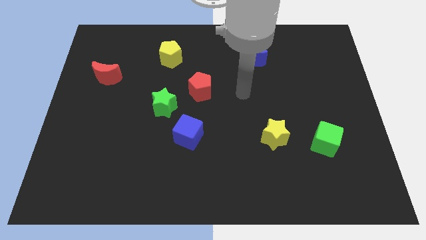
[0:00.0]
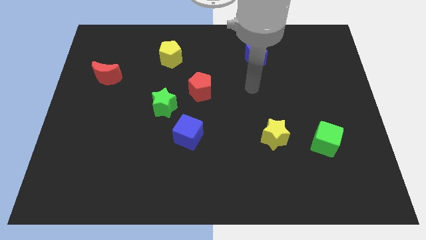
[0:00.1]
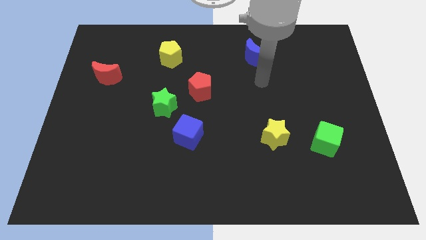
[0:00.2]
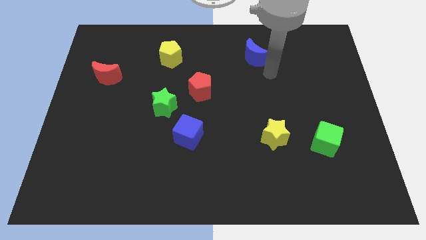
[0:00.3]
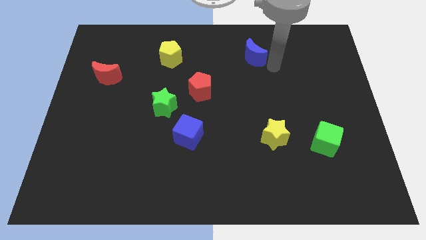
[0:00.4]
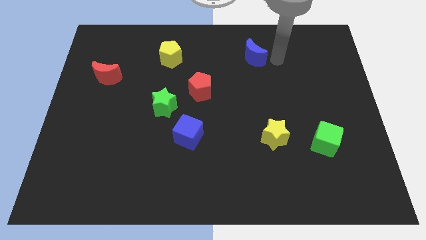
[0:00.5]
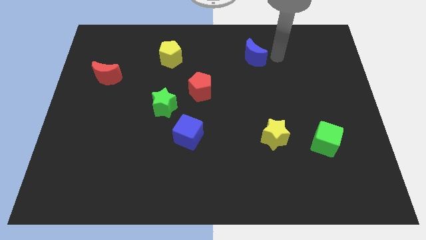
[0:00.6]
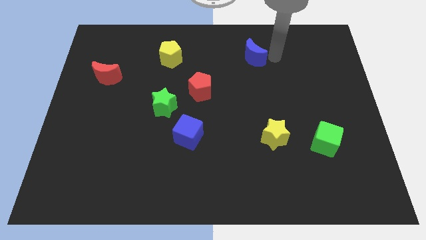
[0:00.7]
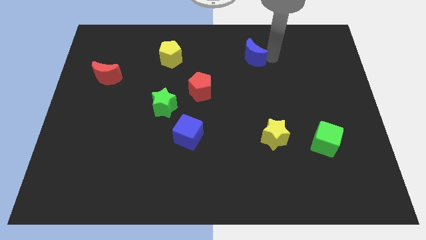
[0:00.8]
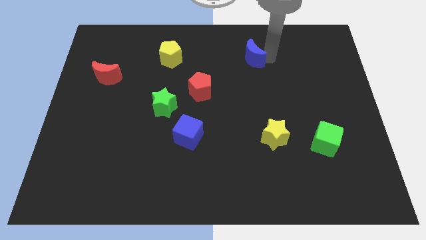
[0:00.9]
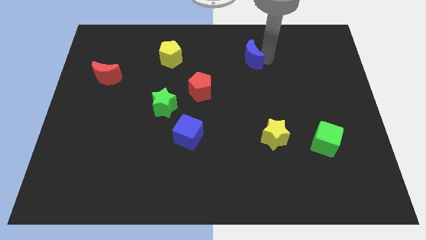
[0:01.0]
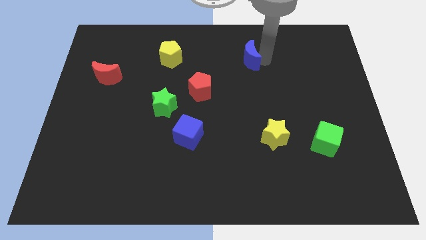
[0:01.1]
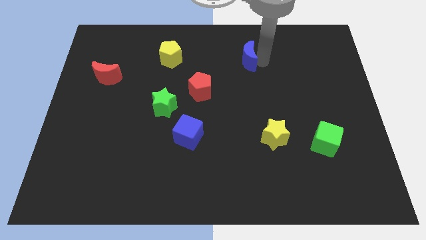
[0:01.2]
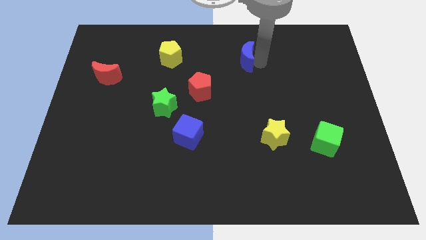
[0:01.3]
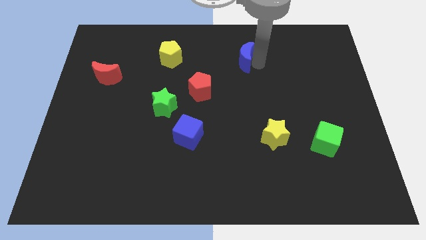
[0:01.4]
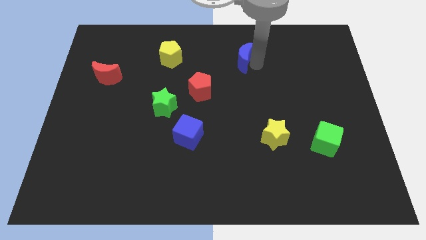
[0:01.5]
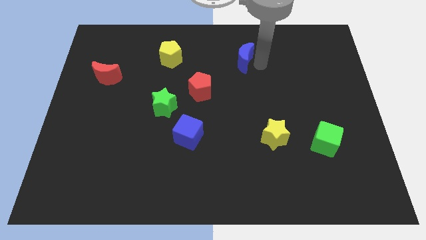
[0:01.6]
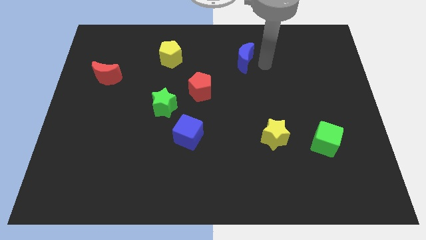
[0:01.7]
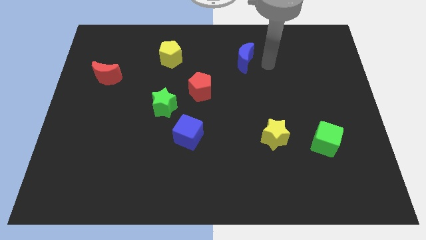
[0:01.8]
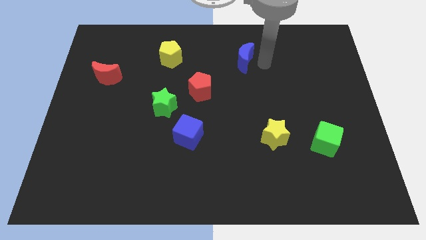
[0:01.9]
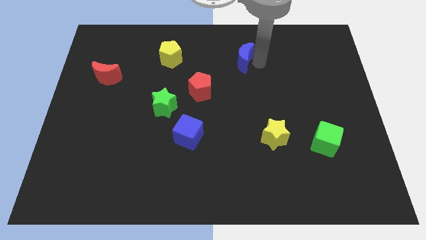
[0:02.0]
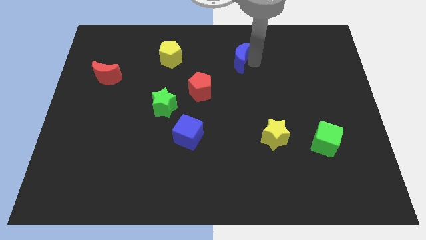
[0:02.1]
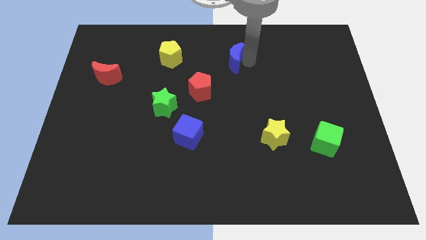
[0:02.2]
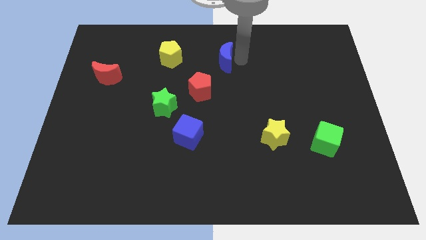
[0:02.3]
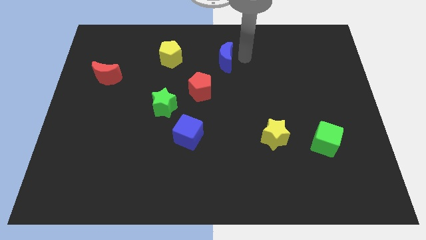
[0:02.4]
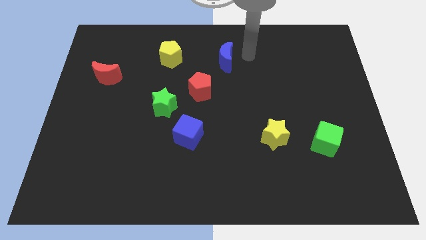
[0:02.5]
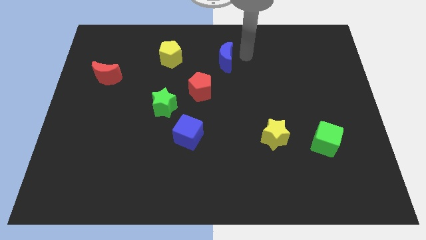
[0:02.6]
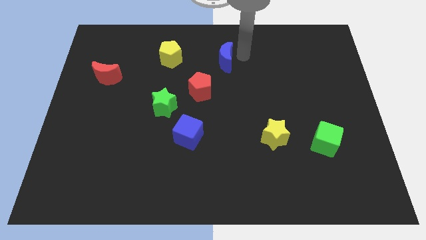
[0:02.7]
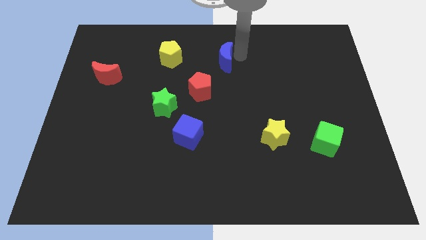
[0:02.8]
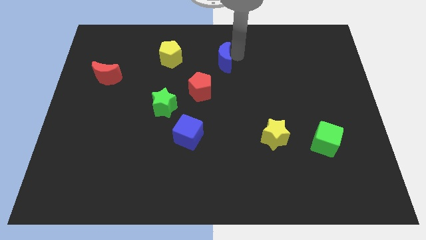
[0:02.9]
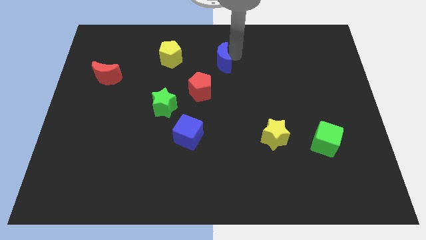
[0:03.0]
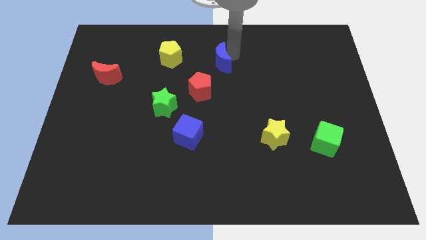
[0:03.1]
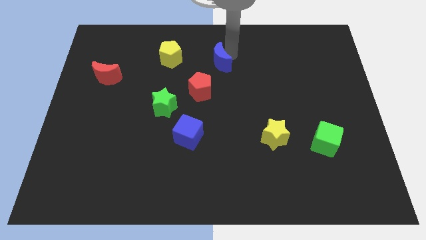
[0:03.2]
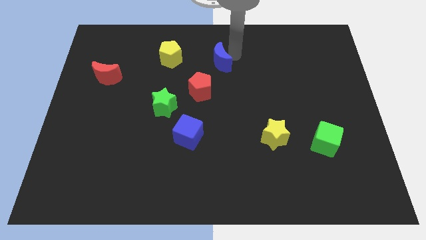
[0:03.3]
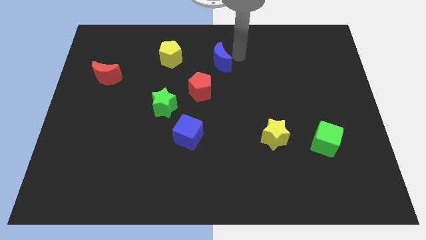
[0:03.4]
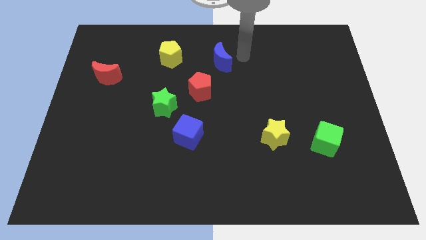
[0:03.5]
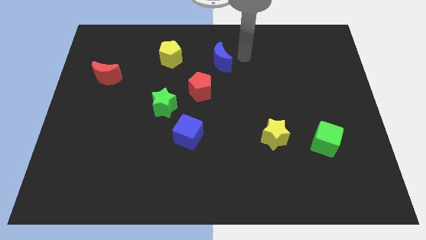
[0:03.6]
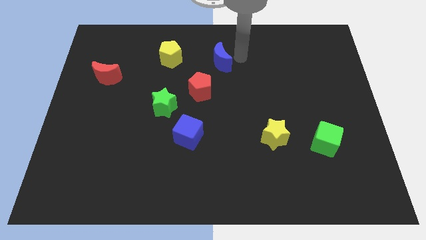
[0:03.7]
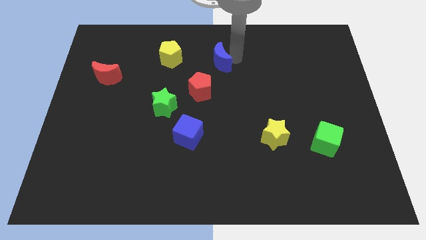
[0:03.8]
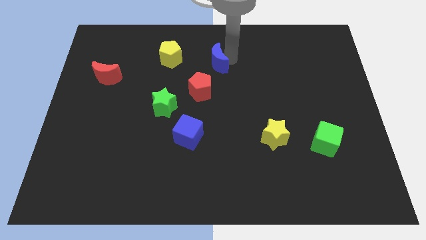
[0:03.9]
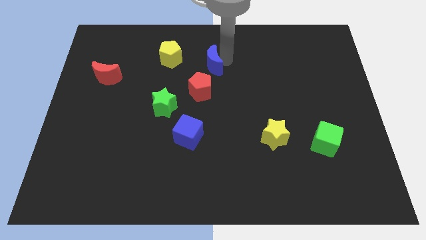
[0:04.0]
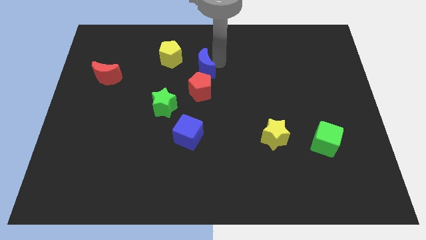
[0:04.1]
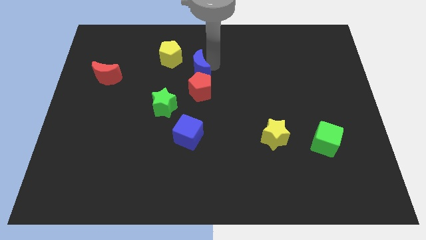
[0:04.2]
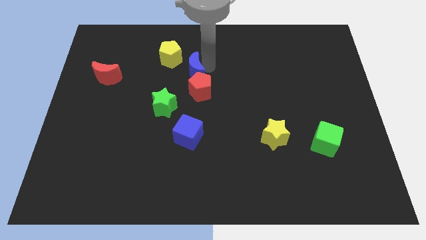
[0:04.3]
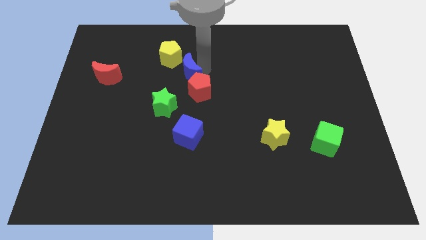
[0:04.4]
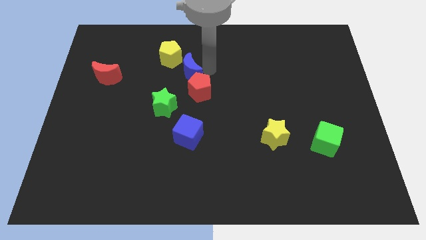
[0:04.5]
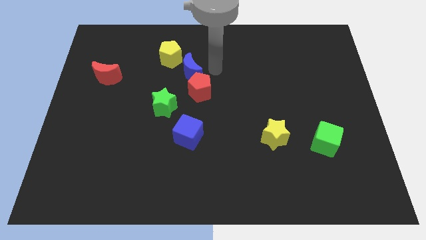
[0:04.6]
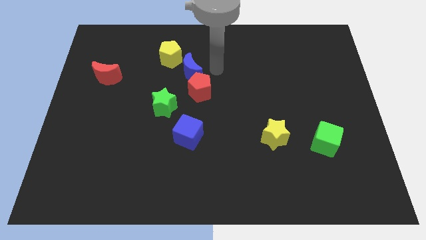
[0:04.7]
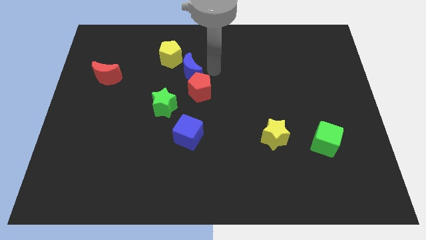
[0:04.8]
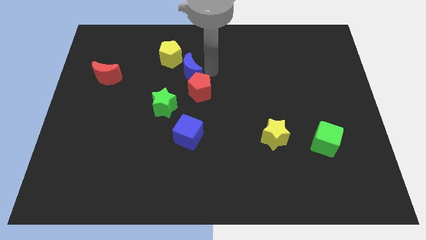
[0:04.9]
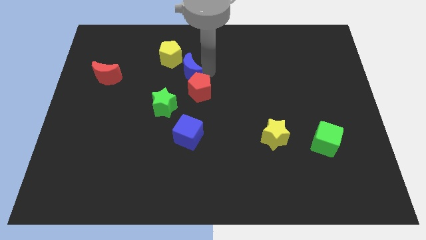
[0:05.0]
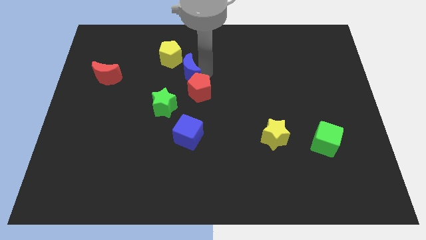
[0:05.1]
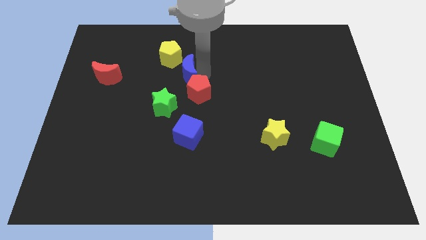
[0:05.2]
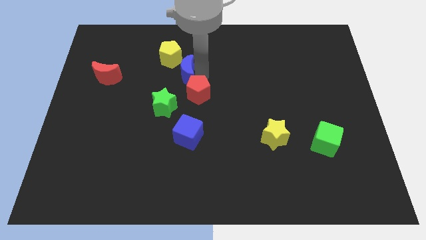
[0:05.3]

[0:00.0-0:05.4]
put the blue moon to the top side of the green star

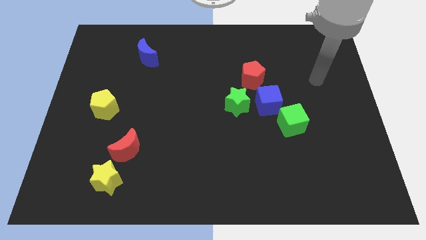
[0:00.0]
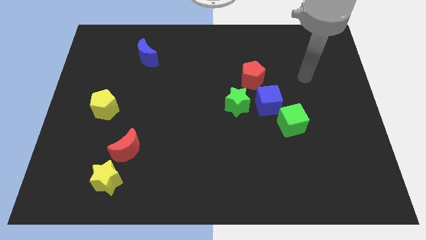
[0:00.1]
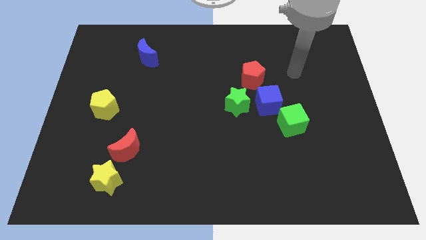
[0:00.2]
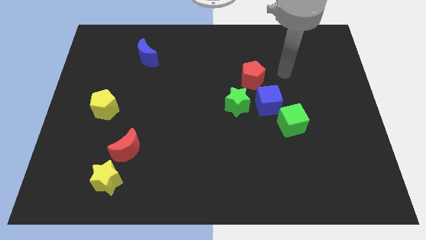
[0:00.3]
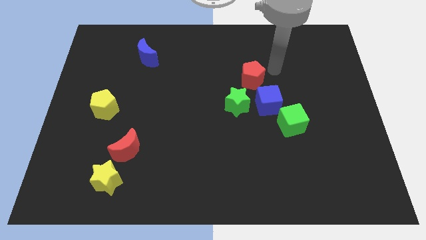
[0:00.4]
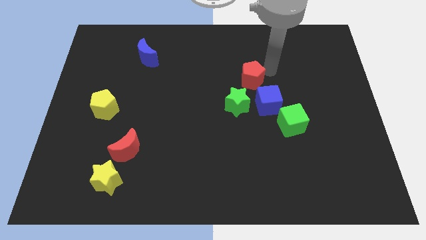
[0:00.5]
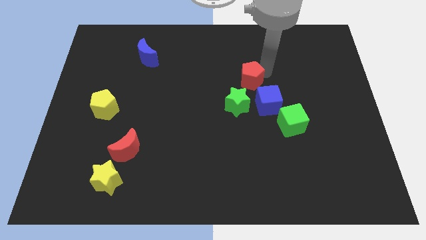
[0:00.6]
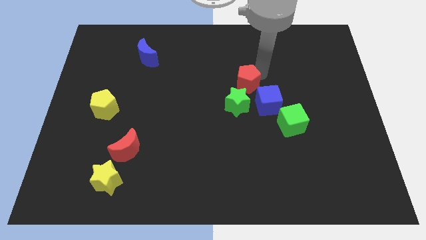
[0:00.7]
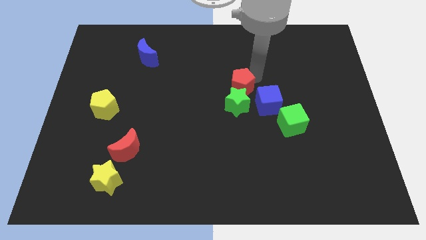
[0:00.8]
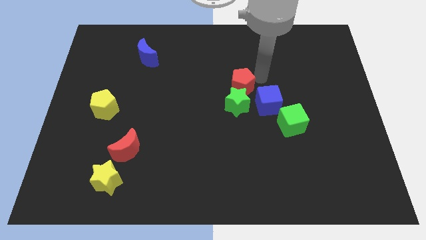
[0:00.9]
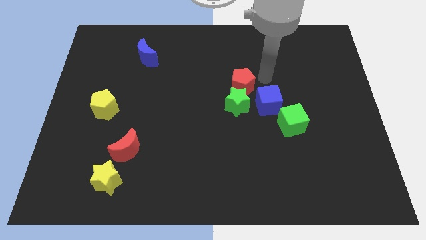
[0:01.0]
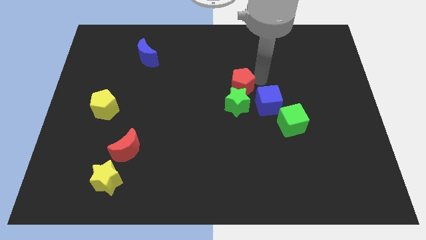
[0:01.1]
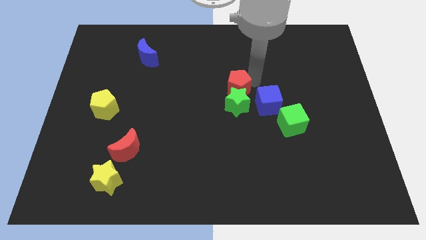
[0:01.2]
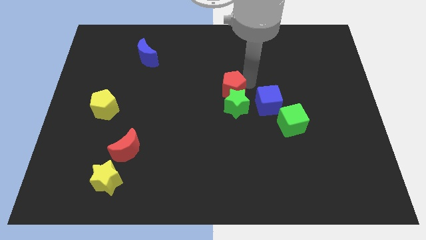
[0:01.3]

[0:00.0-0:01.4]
move the red pentagon to the left of the blue cube
